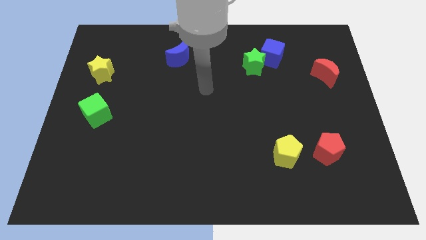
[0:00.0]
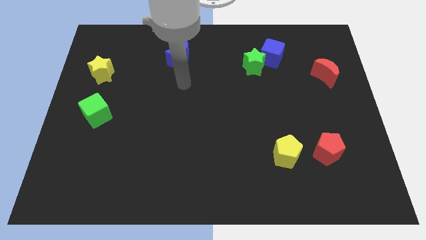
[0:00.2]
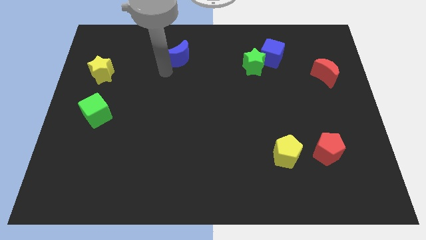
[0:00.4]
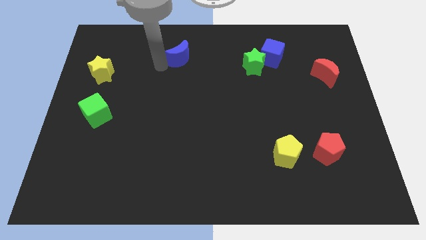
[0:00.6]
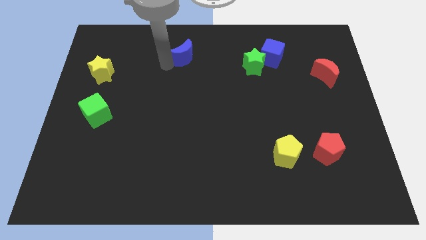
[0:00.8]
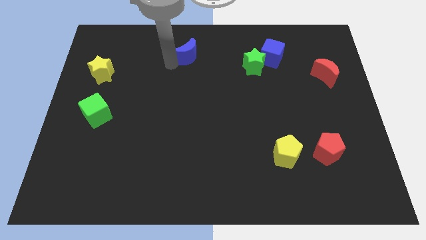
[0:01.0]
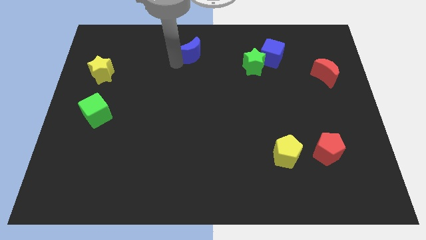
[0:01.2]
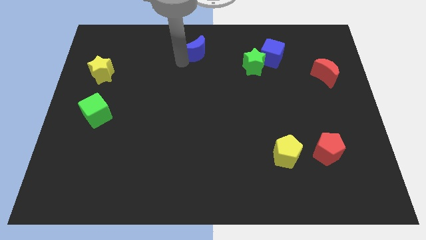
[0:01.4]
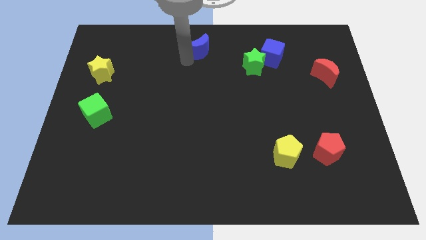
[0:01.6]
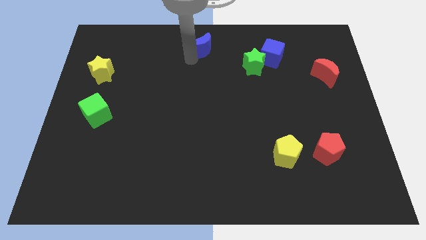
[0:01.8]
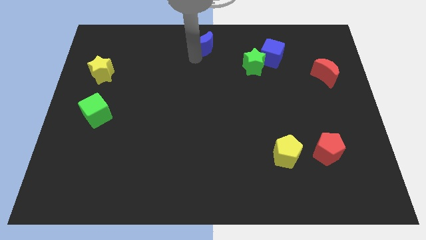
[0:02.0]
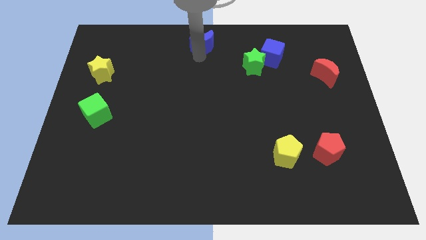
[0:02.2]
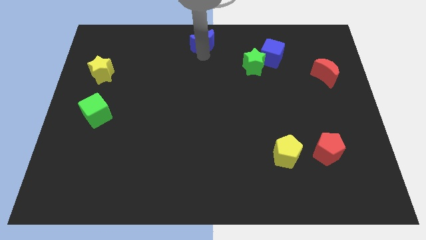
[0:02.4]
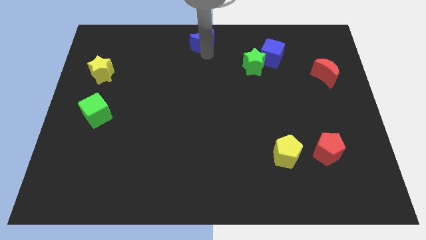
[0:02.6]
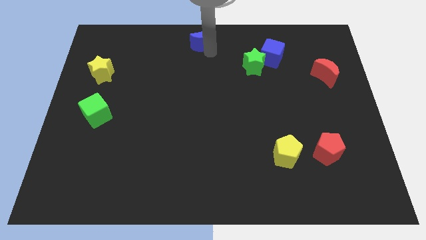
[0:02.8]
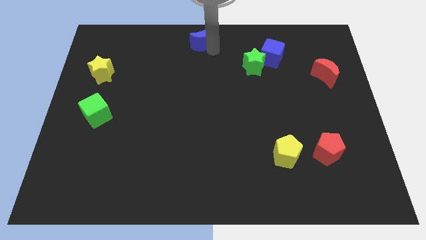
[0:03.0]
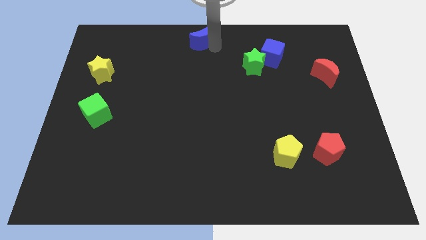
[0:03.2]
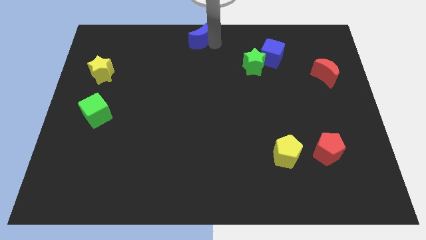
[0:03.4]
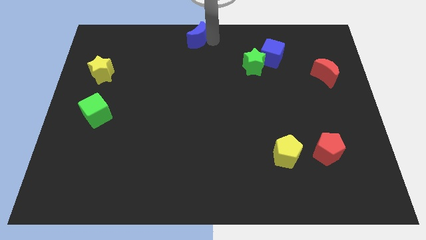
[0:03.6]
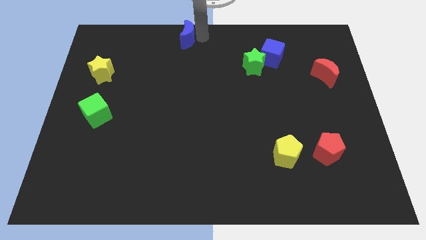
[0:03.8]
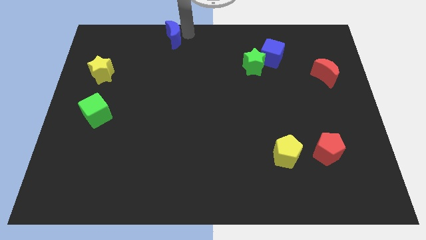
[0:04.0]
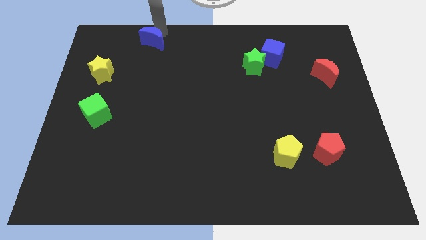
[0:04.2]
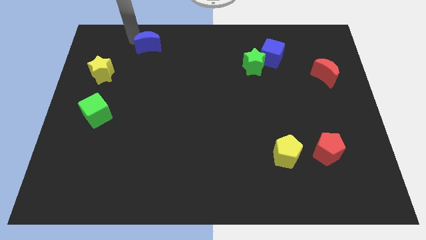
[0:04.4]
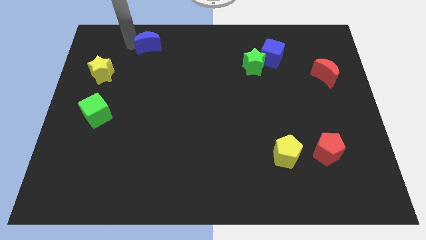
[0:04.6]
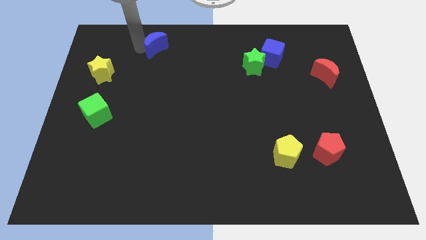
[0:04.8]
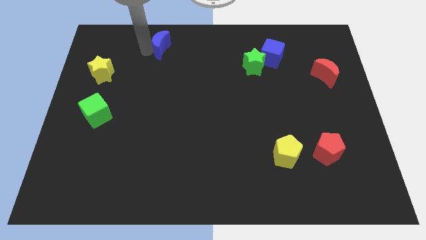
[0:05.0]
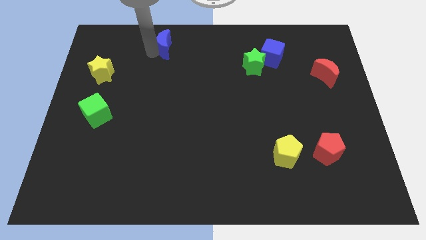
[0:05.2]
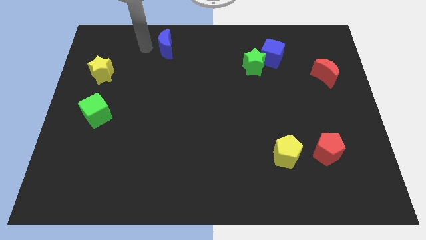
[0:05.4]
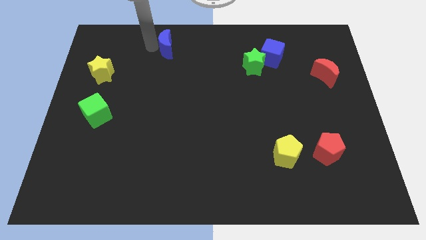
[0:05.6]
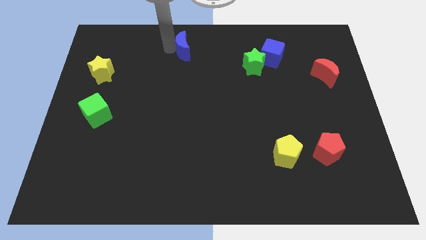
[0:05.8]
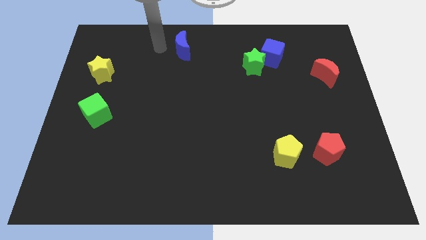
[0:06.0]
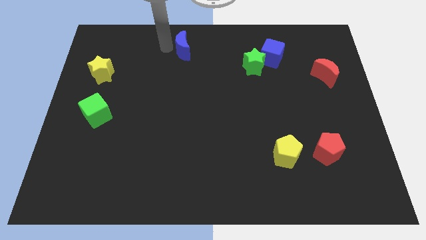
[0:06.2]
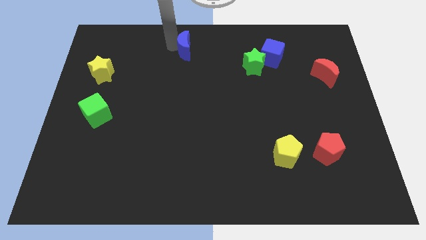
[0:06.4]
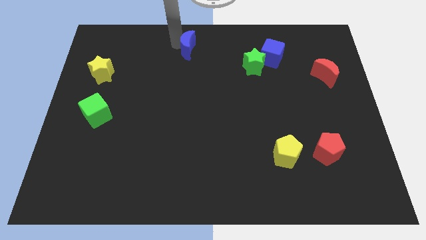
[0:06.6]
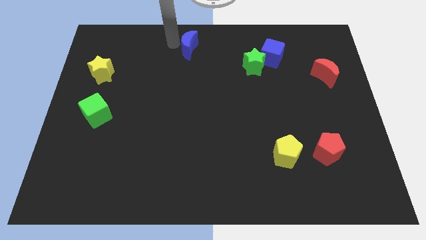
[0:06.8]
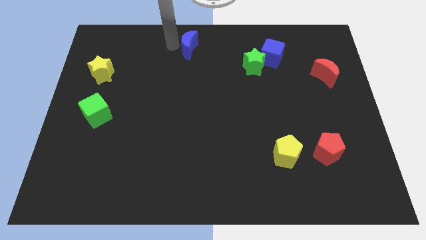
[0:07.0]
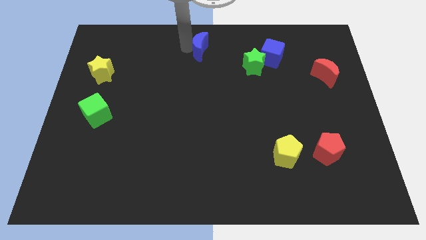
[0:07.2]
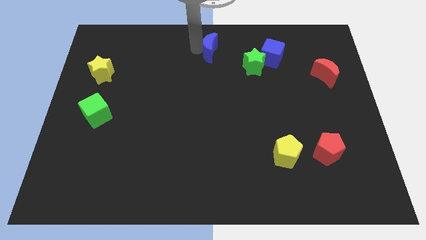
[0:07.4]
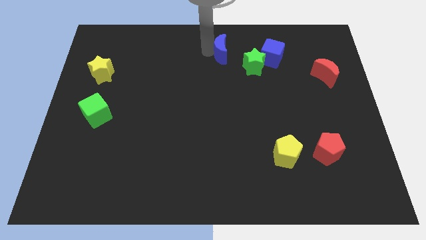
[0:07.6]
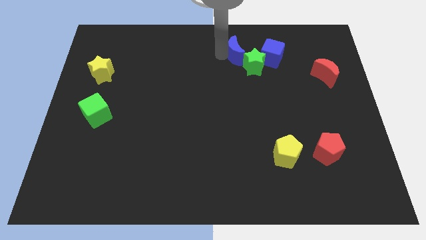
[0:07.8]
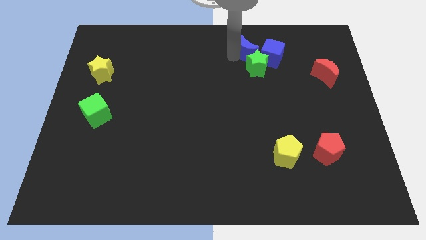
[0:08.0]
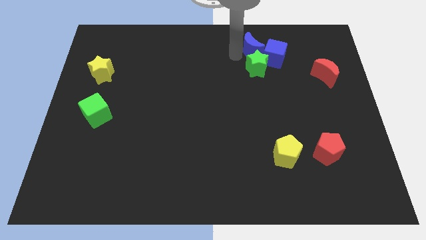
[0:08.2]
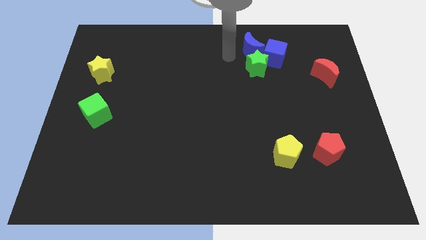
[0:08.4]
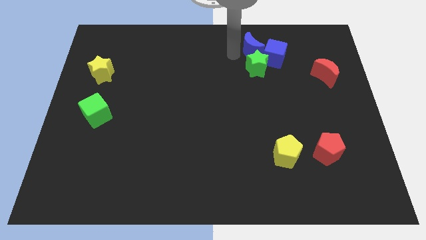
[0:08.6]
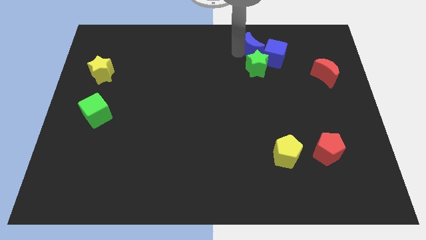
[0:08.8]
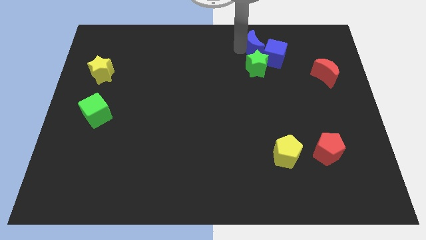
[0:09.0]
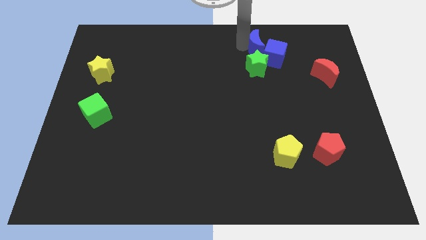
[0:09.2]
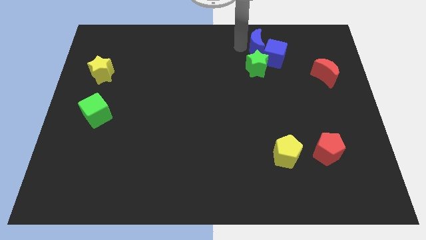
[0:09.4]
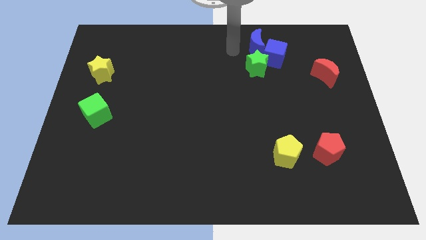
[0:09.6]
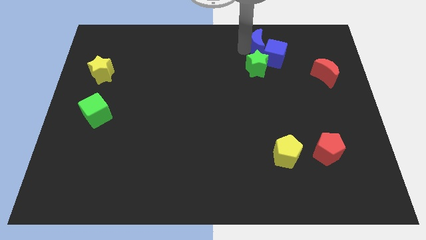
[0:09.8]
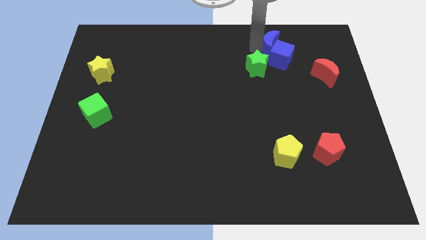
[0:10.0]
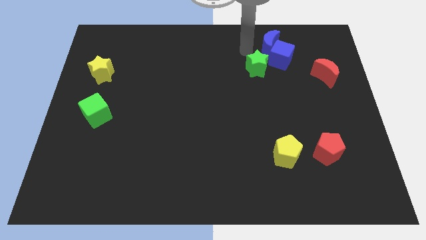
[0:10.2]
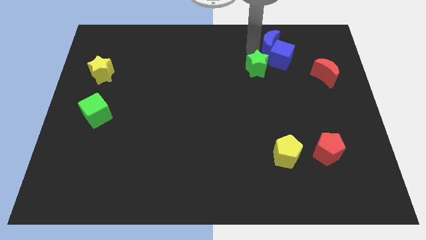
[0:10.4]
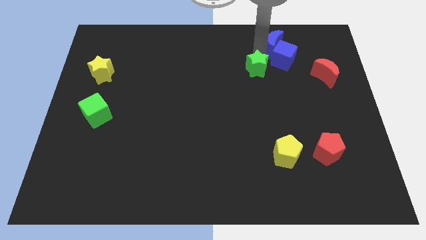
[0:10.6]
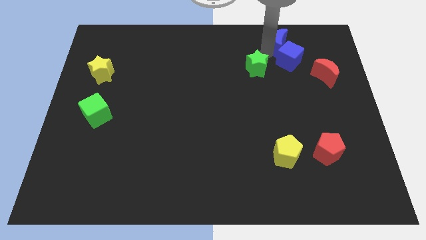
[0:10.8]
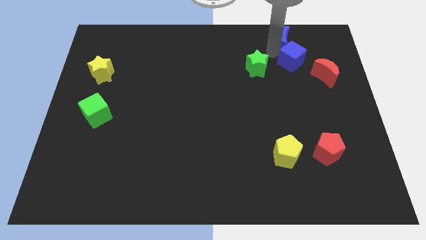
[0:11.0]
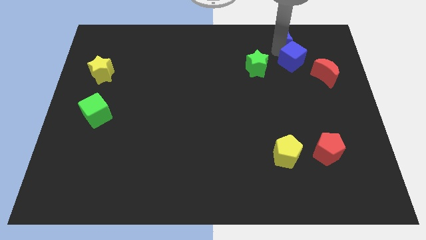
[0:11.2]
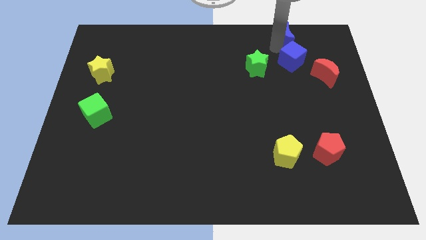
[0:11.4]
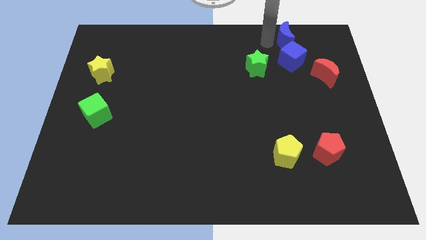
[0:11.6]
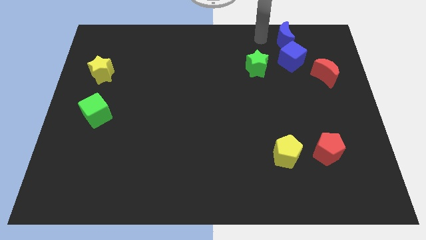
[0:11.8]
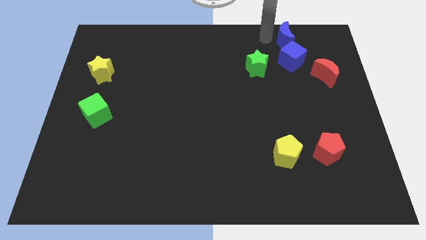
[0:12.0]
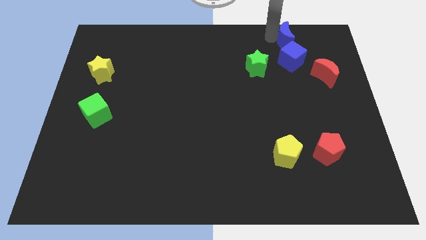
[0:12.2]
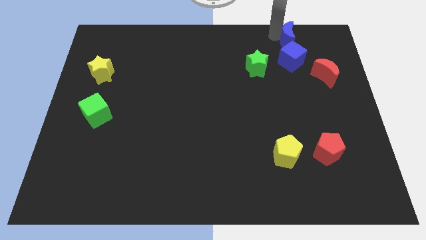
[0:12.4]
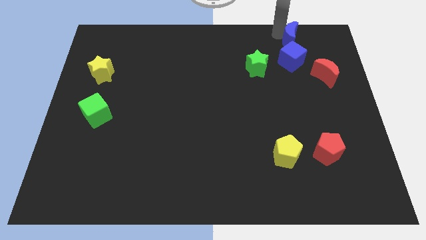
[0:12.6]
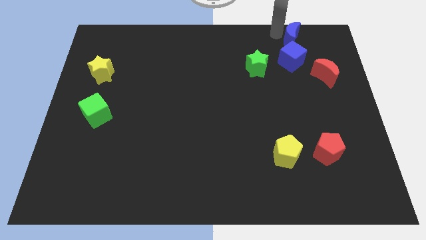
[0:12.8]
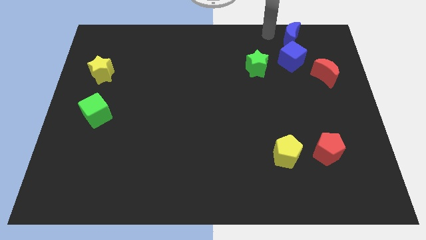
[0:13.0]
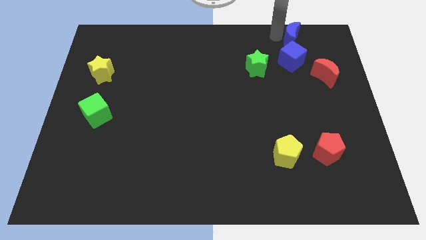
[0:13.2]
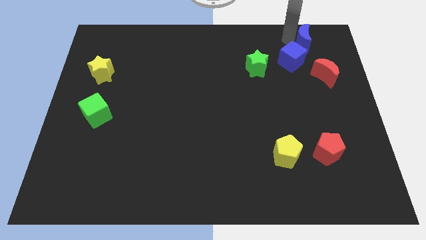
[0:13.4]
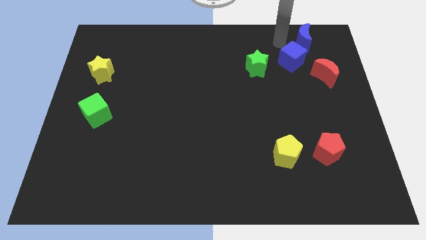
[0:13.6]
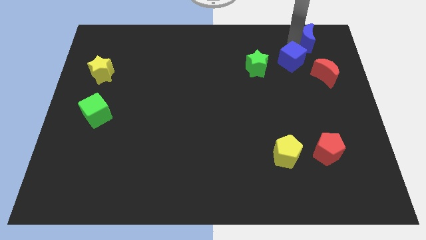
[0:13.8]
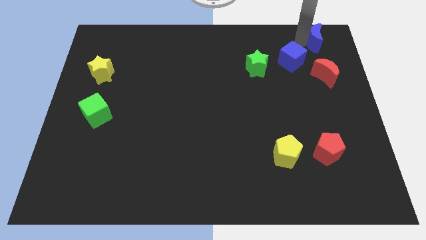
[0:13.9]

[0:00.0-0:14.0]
put the blue moon to the top right of the board
